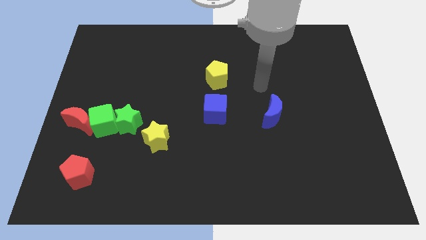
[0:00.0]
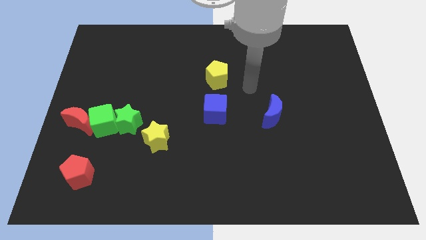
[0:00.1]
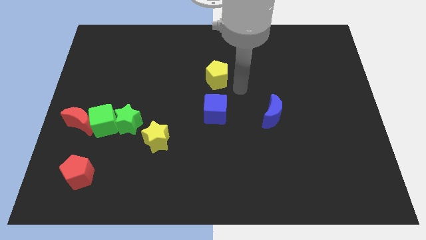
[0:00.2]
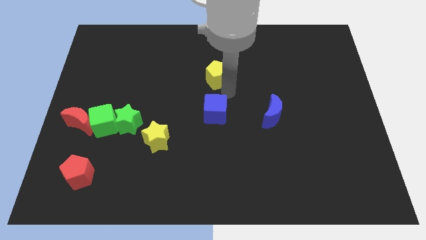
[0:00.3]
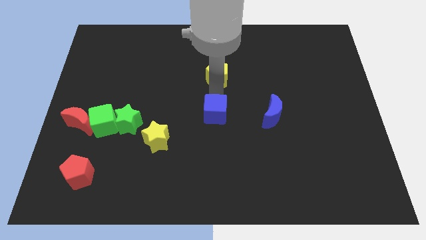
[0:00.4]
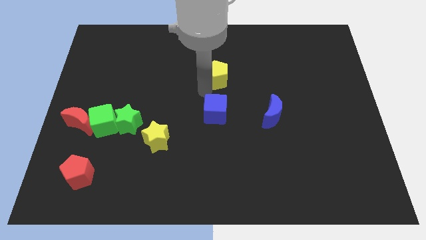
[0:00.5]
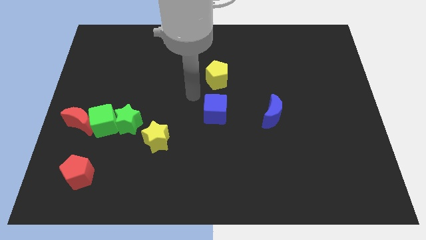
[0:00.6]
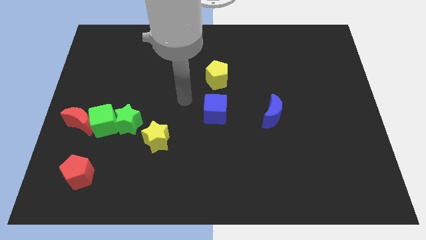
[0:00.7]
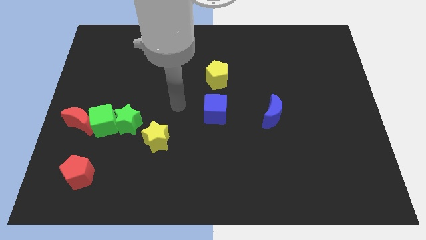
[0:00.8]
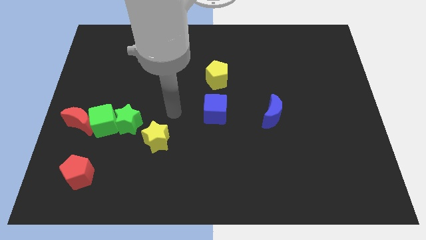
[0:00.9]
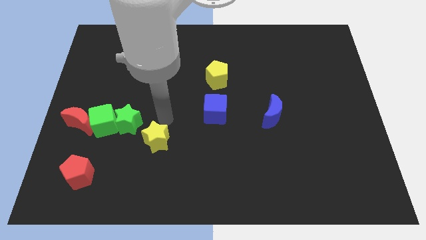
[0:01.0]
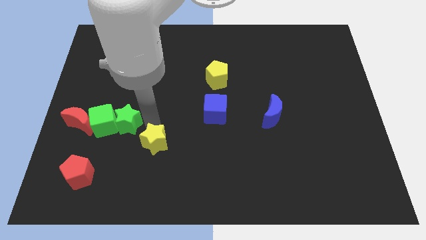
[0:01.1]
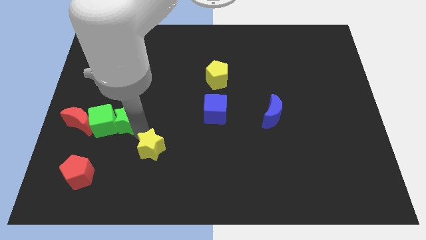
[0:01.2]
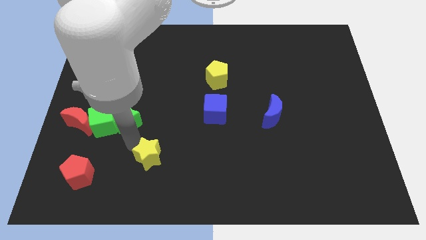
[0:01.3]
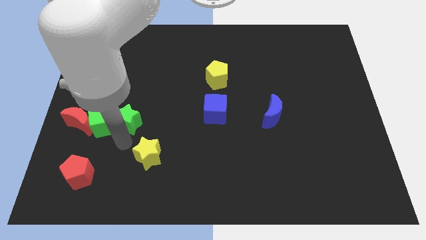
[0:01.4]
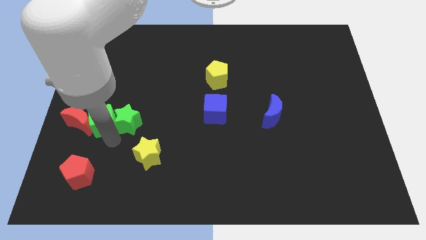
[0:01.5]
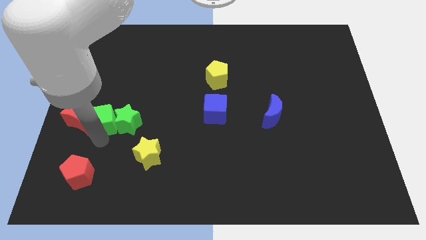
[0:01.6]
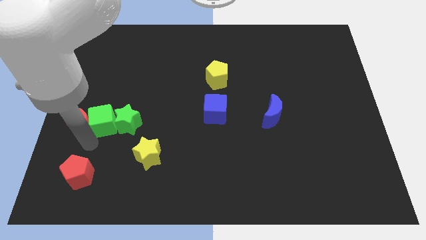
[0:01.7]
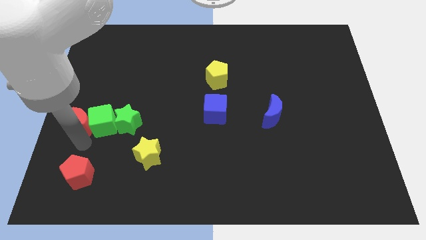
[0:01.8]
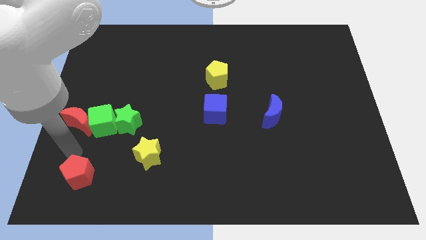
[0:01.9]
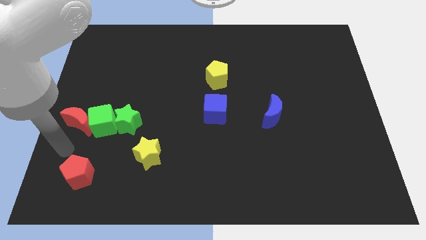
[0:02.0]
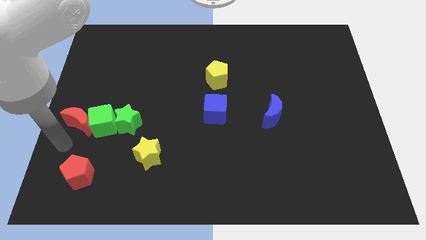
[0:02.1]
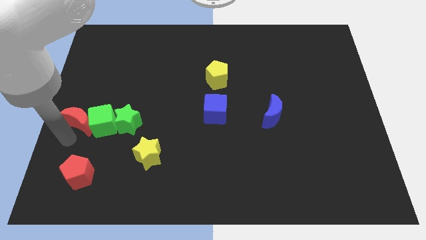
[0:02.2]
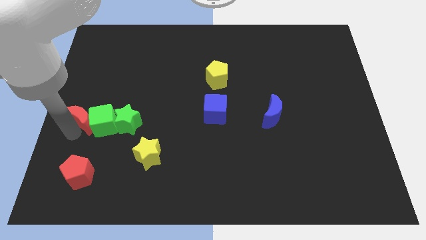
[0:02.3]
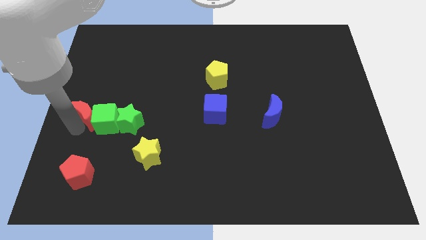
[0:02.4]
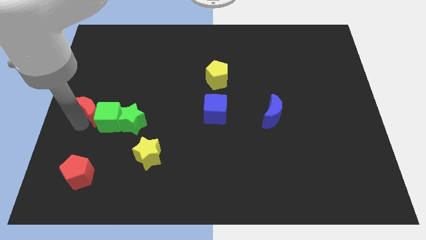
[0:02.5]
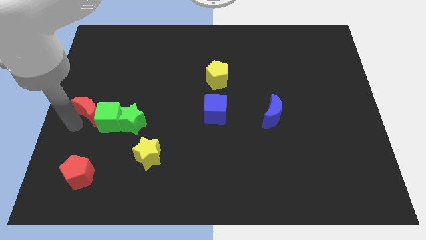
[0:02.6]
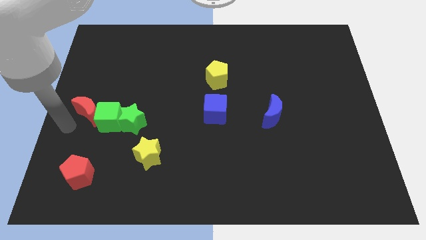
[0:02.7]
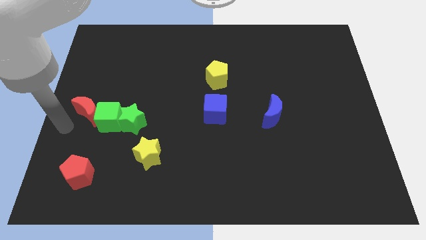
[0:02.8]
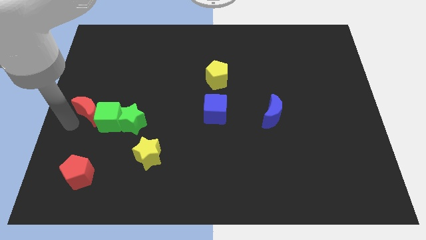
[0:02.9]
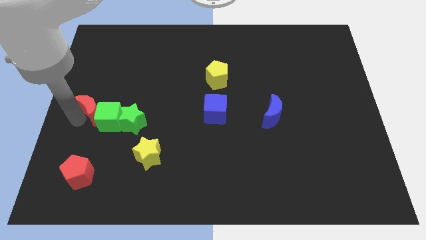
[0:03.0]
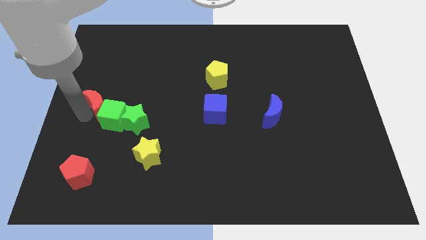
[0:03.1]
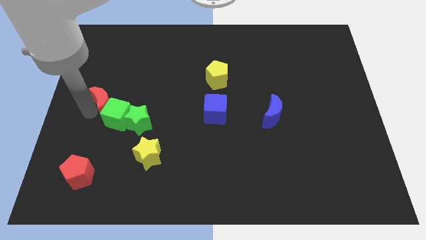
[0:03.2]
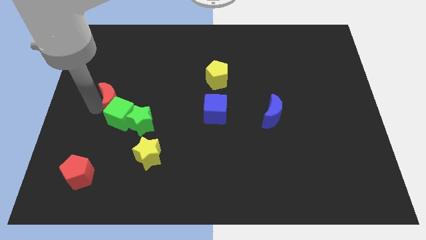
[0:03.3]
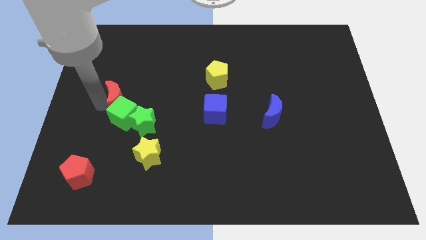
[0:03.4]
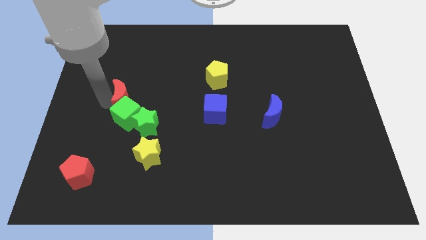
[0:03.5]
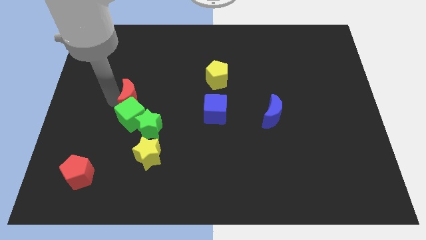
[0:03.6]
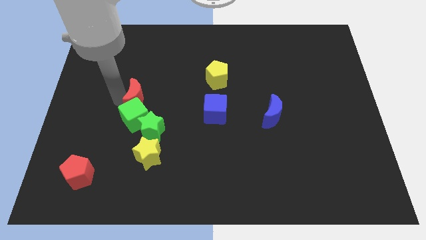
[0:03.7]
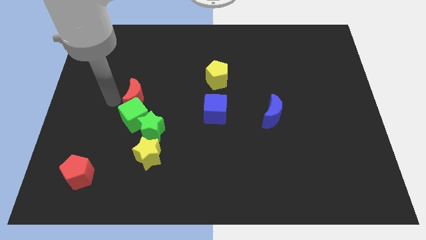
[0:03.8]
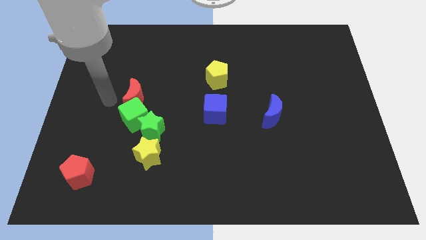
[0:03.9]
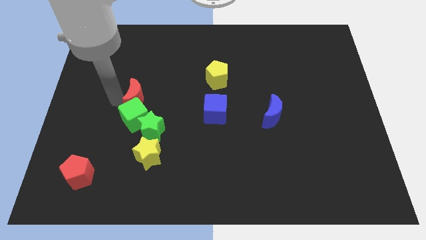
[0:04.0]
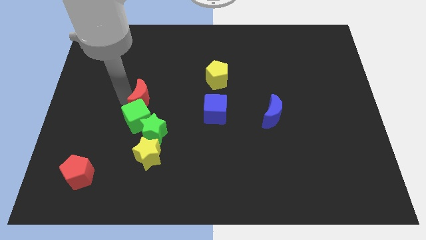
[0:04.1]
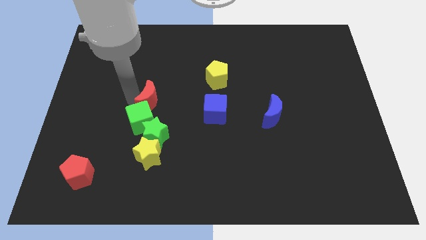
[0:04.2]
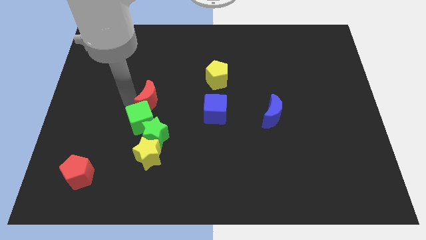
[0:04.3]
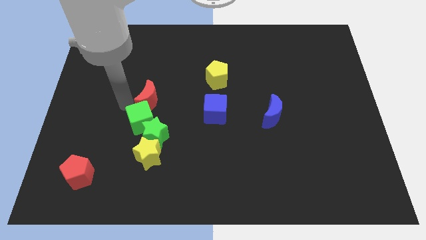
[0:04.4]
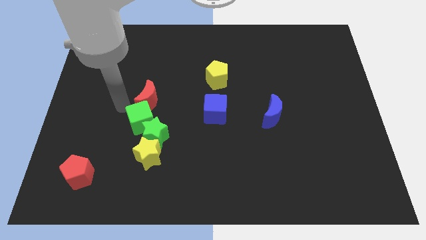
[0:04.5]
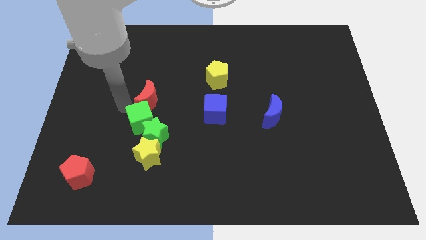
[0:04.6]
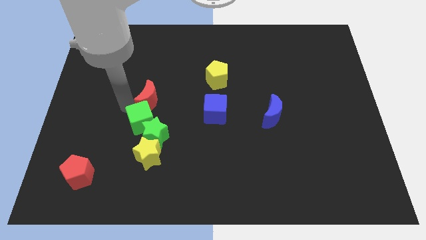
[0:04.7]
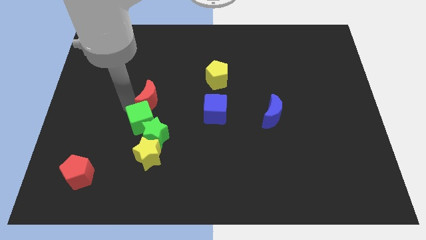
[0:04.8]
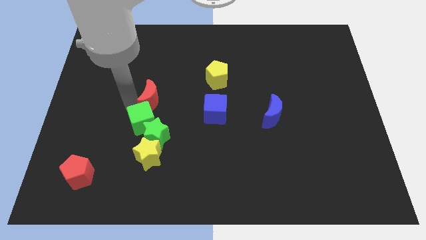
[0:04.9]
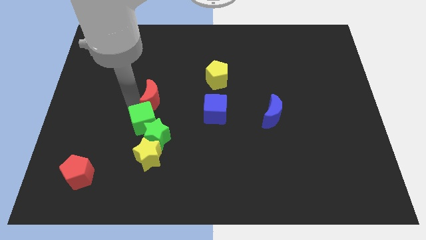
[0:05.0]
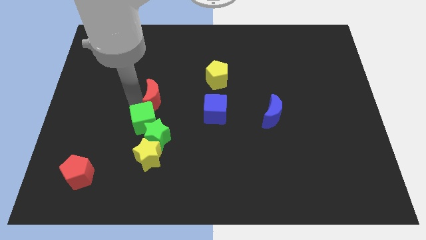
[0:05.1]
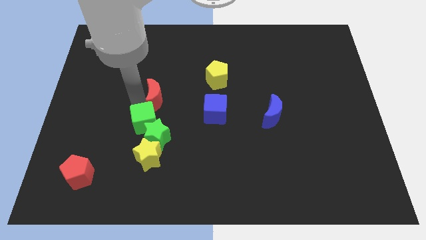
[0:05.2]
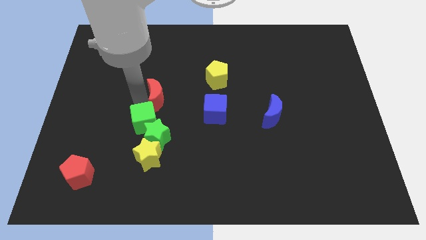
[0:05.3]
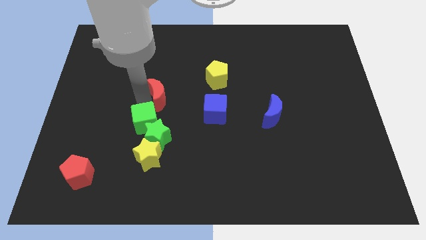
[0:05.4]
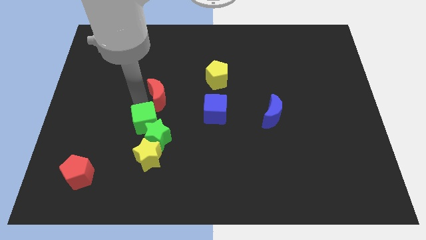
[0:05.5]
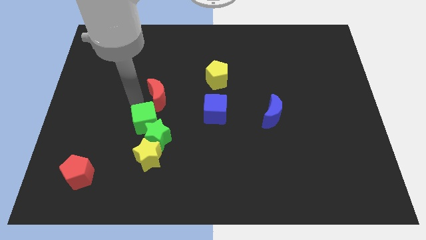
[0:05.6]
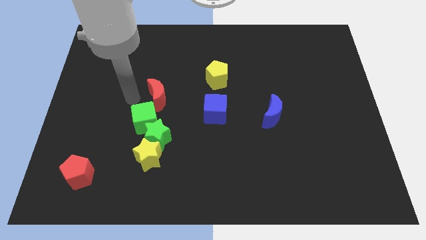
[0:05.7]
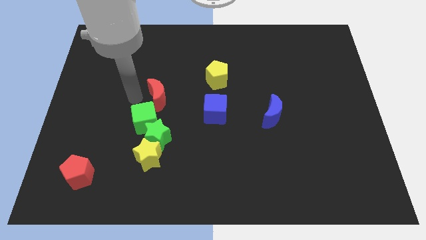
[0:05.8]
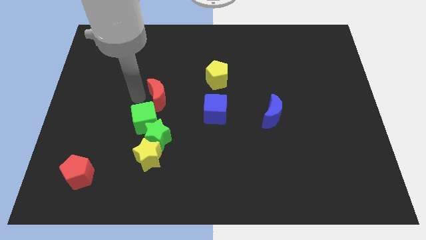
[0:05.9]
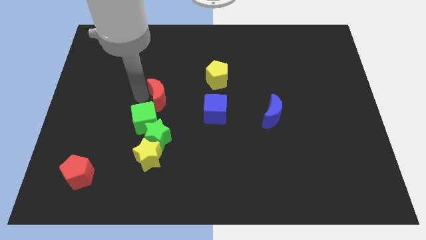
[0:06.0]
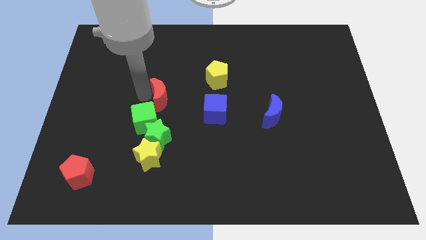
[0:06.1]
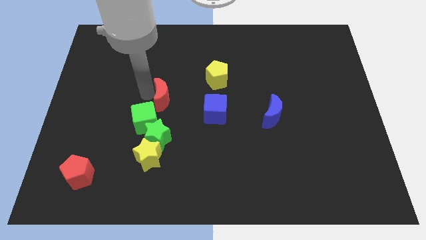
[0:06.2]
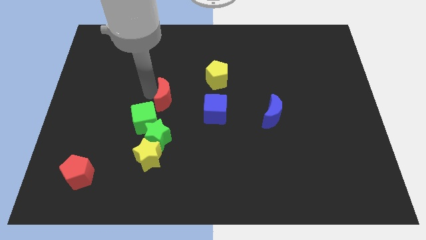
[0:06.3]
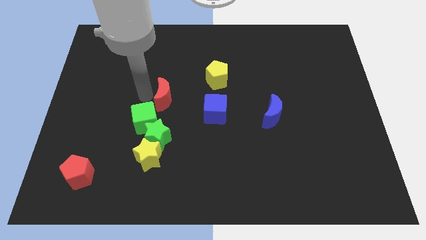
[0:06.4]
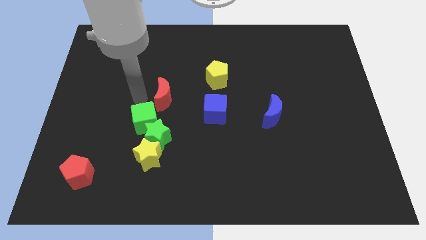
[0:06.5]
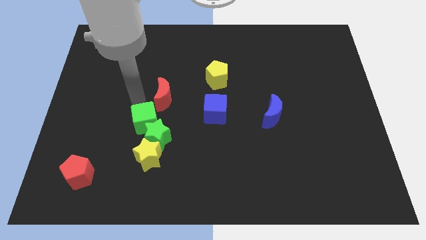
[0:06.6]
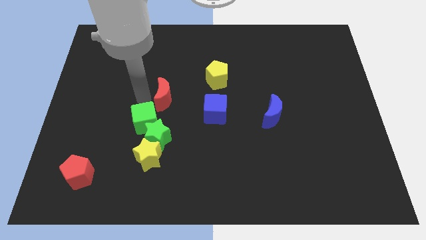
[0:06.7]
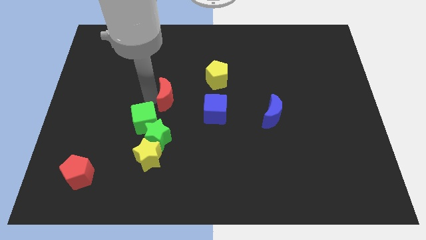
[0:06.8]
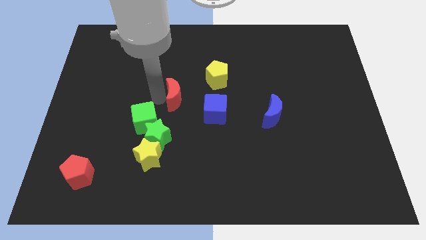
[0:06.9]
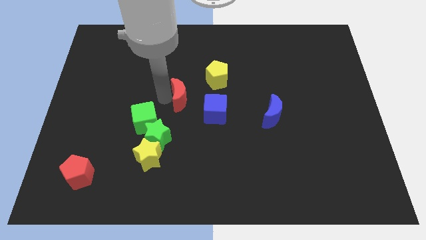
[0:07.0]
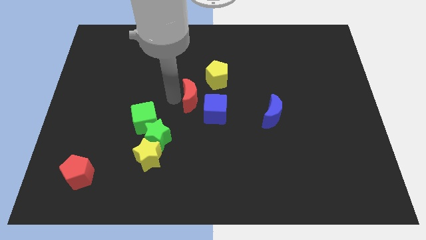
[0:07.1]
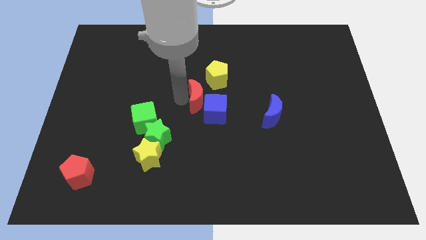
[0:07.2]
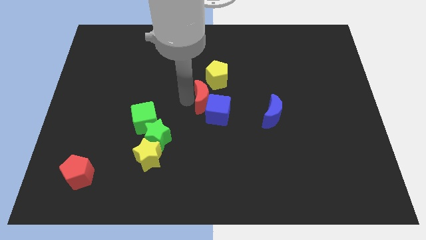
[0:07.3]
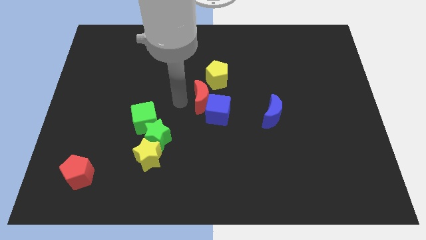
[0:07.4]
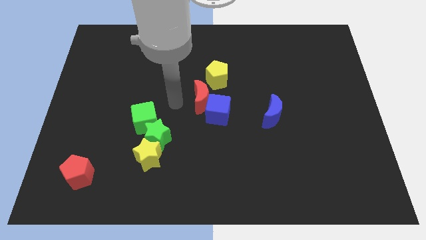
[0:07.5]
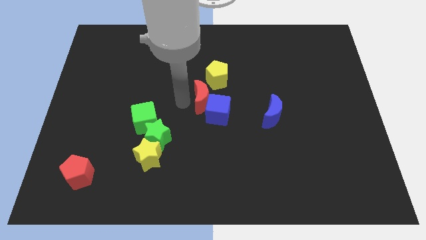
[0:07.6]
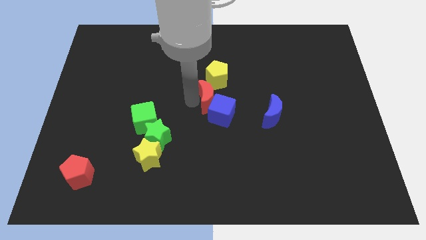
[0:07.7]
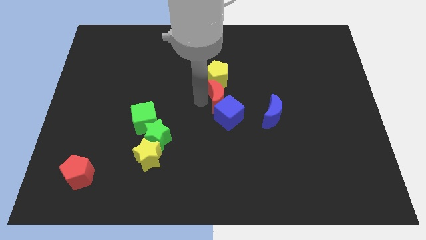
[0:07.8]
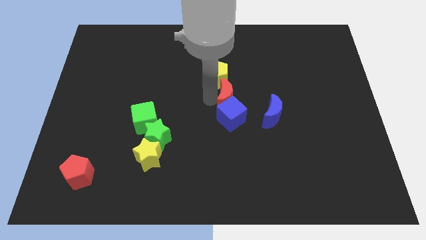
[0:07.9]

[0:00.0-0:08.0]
move the red moon to the top right of the blue cube

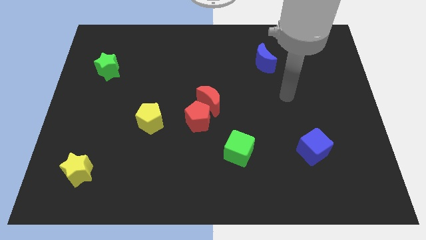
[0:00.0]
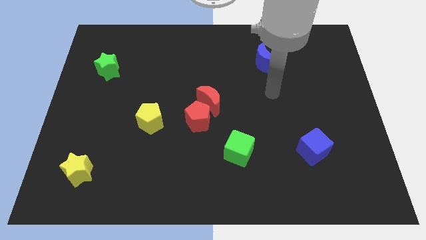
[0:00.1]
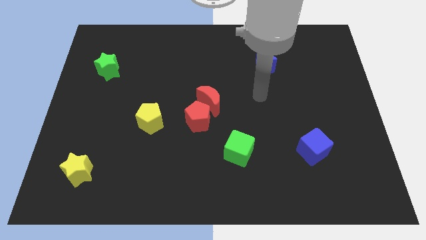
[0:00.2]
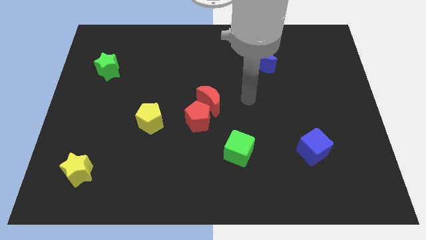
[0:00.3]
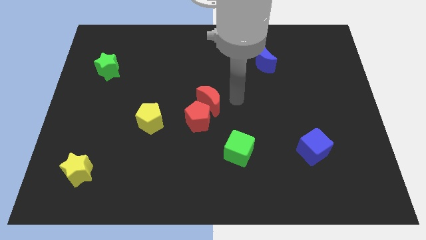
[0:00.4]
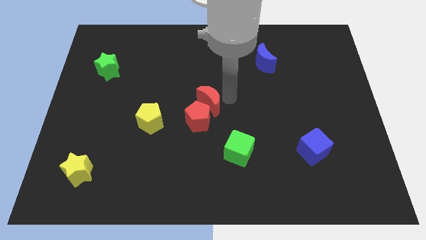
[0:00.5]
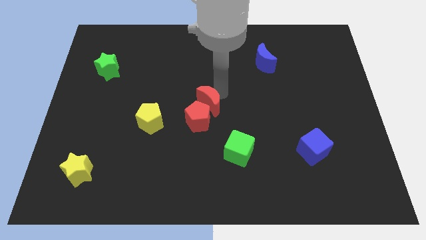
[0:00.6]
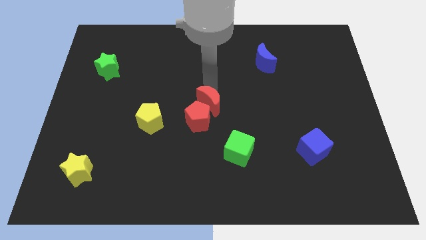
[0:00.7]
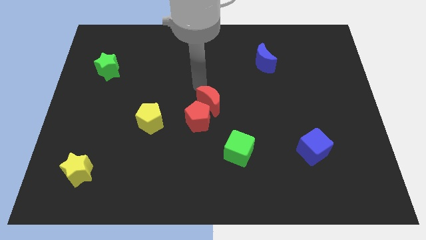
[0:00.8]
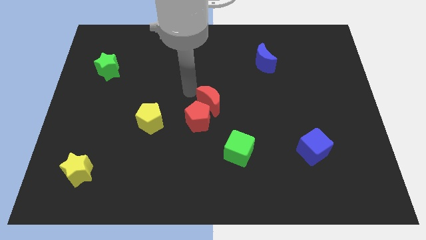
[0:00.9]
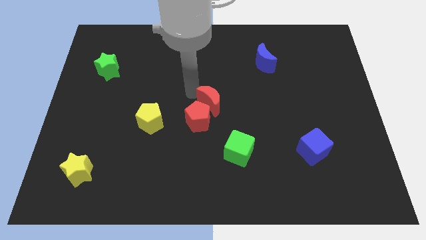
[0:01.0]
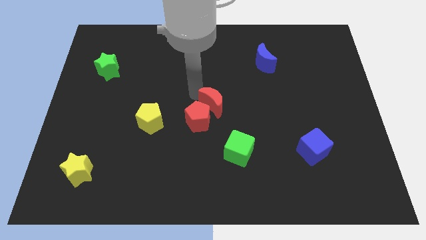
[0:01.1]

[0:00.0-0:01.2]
put the red moon to the right side of the red pentagon
